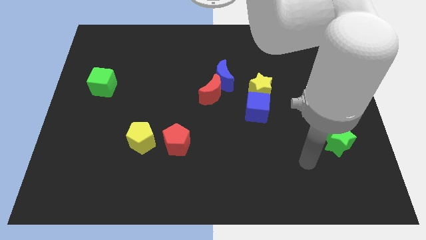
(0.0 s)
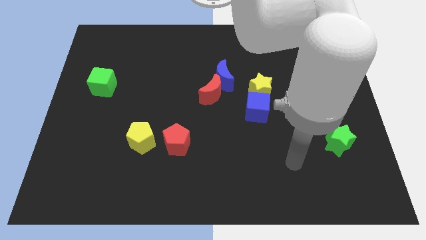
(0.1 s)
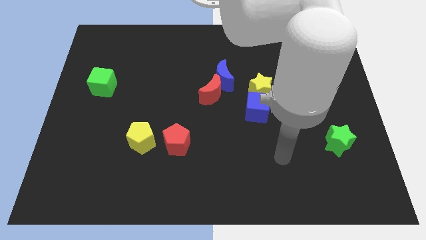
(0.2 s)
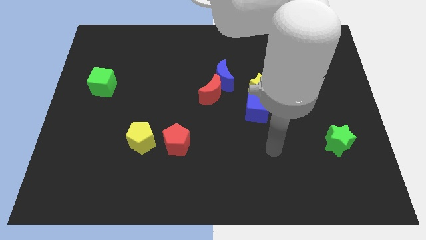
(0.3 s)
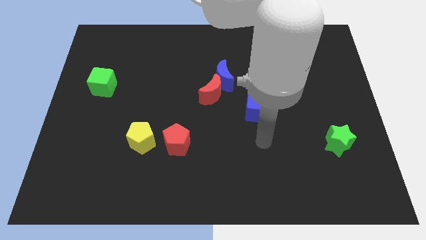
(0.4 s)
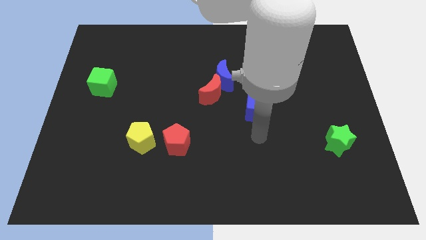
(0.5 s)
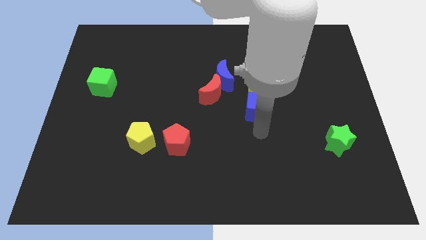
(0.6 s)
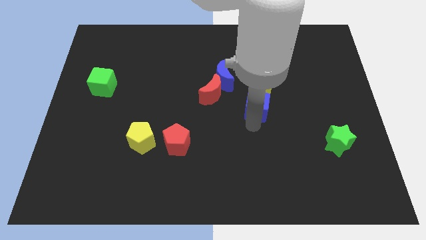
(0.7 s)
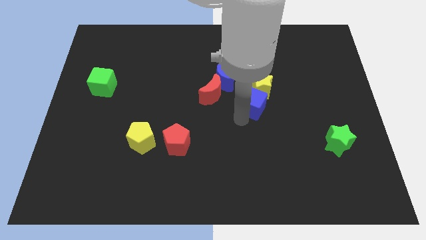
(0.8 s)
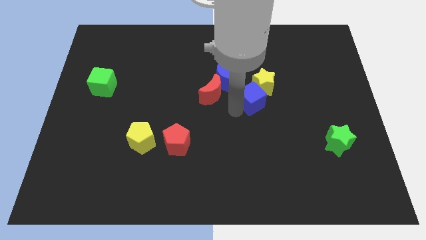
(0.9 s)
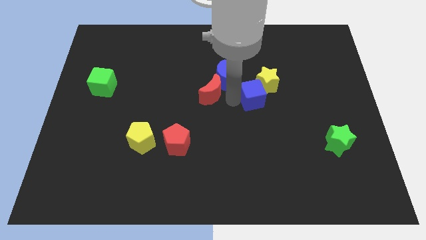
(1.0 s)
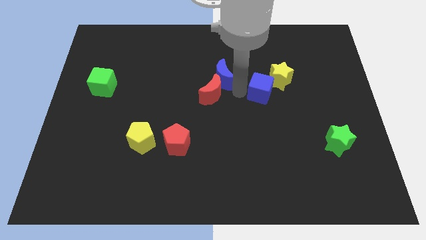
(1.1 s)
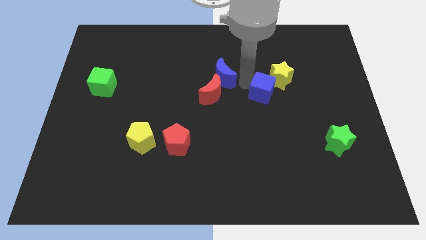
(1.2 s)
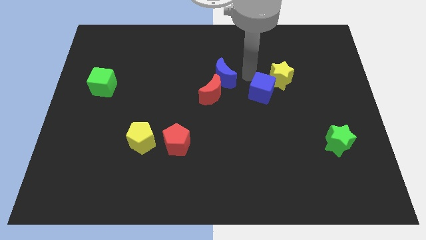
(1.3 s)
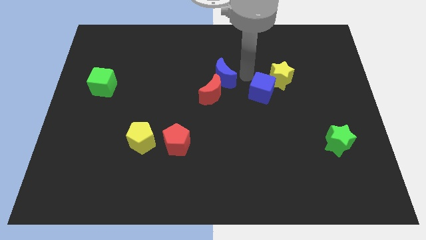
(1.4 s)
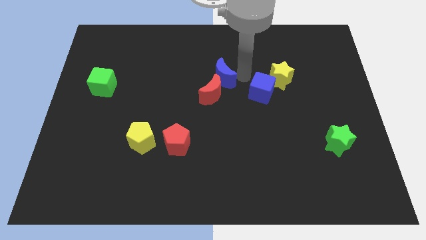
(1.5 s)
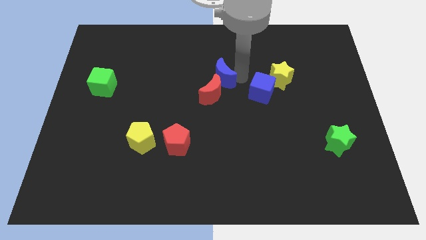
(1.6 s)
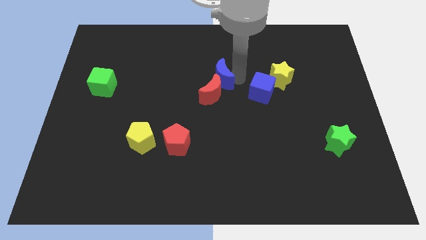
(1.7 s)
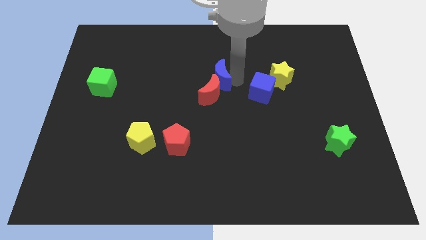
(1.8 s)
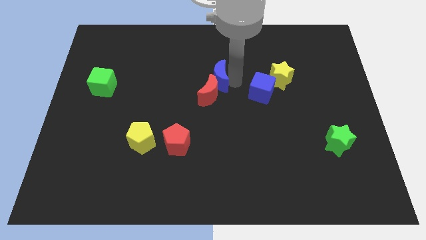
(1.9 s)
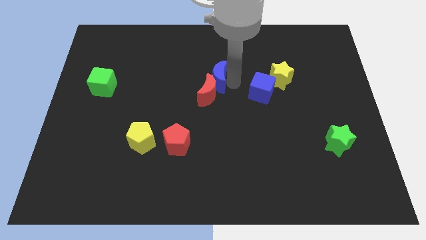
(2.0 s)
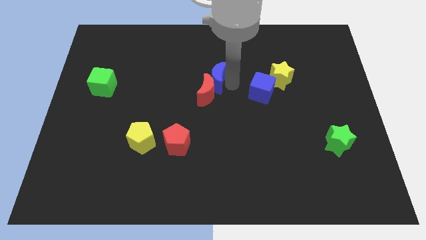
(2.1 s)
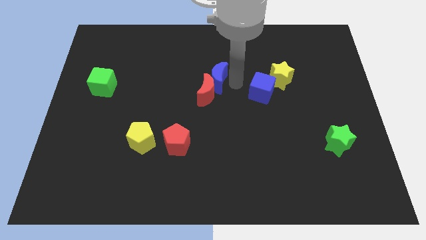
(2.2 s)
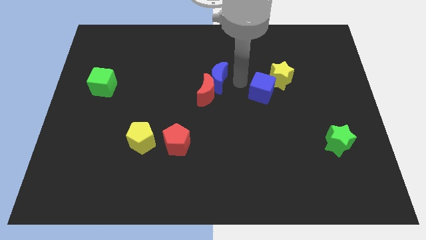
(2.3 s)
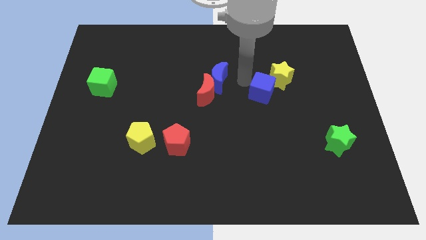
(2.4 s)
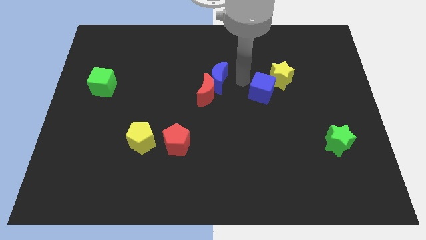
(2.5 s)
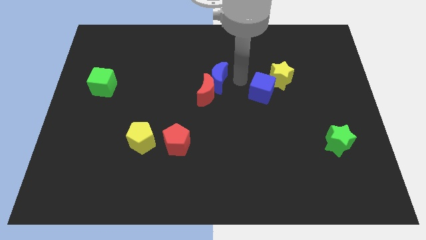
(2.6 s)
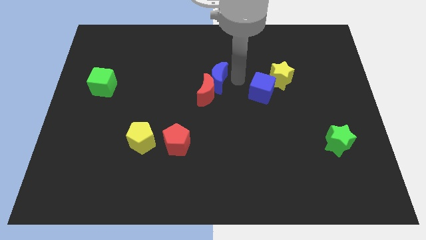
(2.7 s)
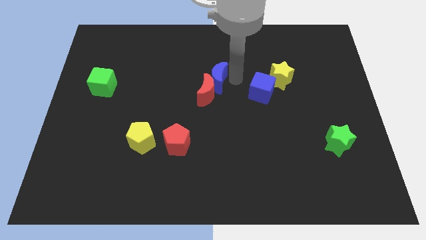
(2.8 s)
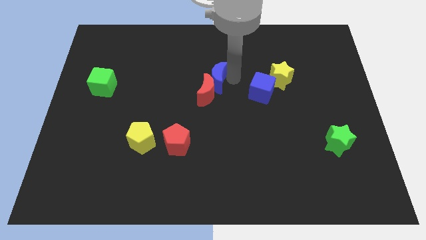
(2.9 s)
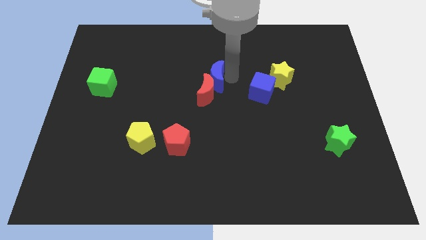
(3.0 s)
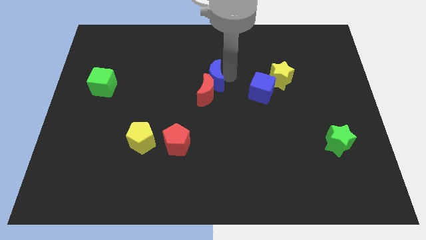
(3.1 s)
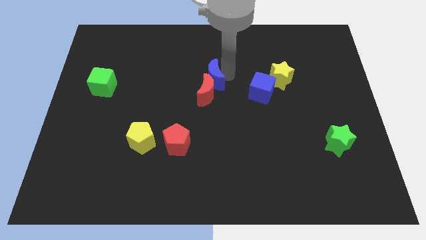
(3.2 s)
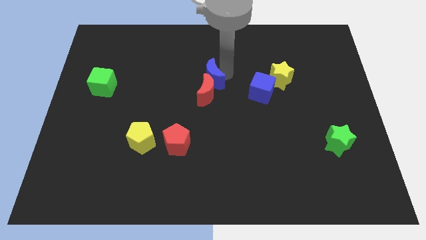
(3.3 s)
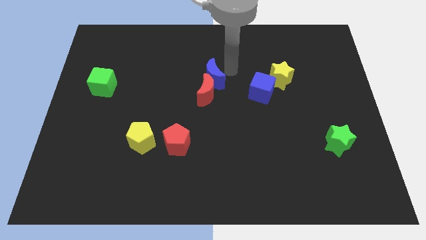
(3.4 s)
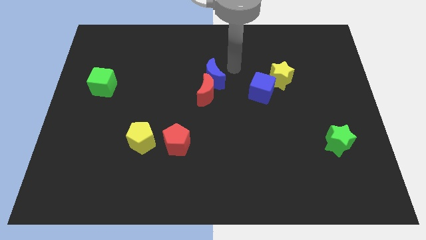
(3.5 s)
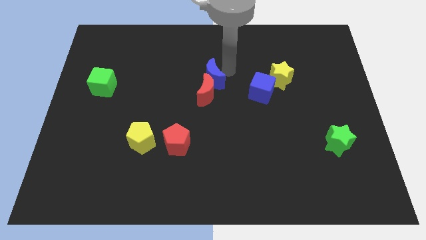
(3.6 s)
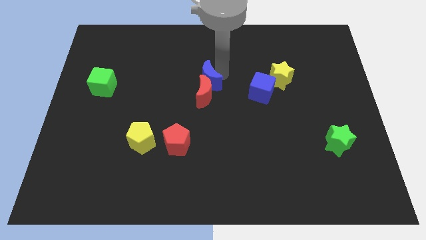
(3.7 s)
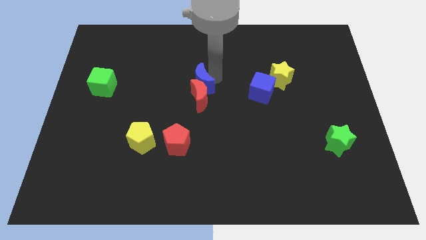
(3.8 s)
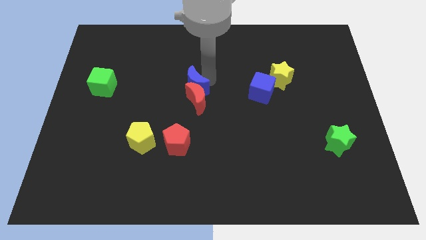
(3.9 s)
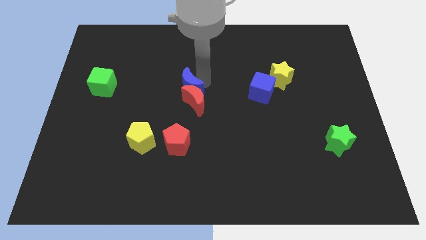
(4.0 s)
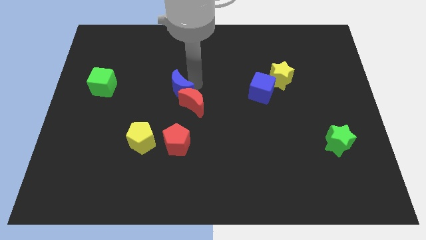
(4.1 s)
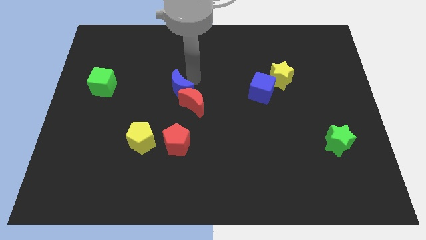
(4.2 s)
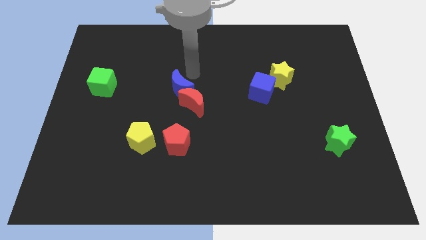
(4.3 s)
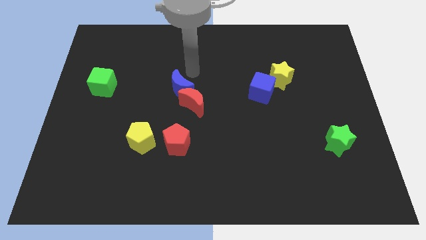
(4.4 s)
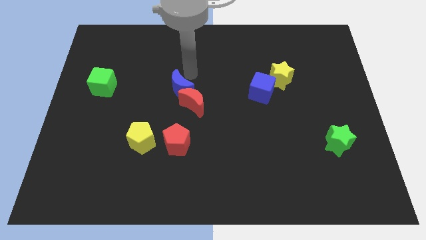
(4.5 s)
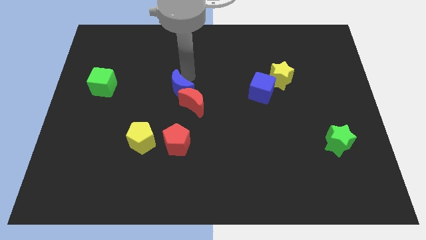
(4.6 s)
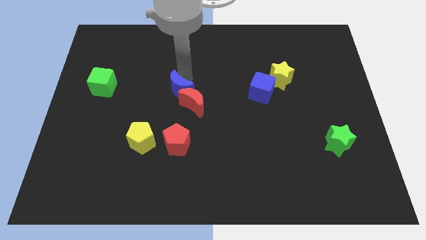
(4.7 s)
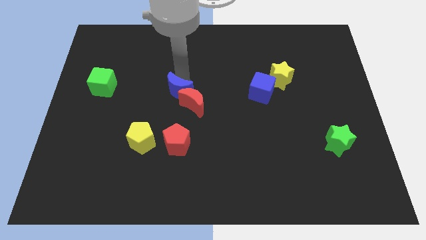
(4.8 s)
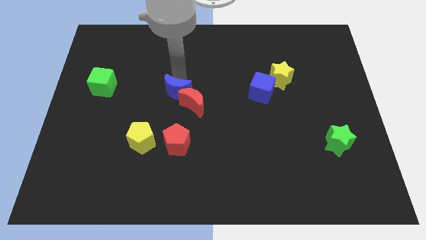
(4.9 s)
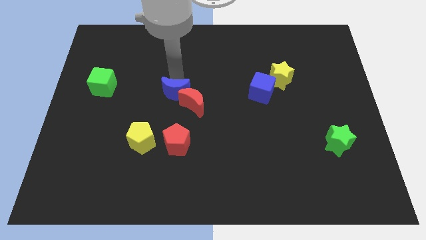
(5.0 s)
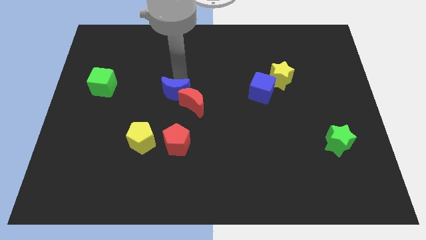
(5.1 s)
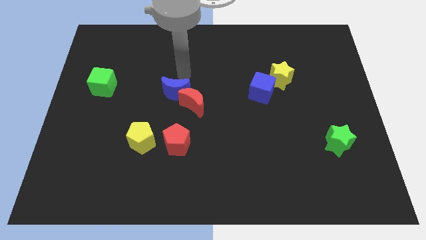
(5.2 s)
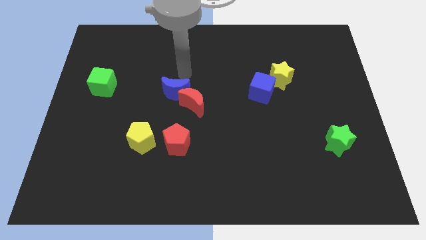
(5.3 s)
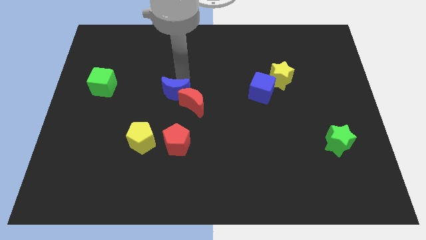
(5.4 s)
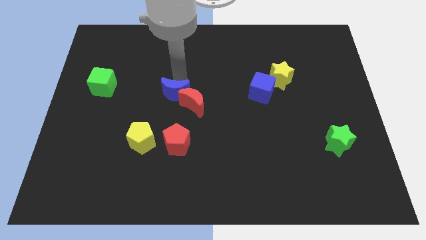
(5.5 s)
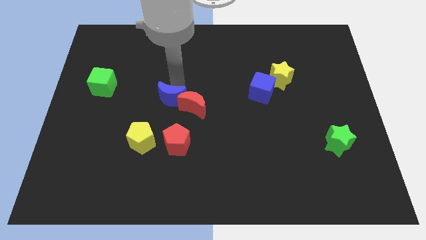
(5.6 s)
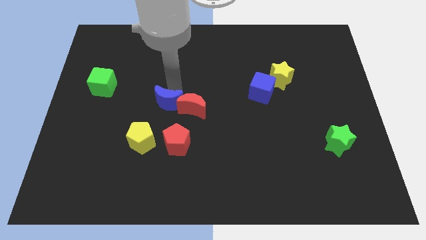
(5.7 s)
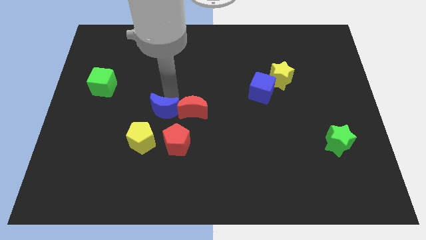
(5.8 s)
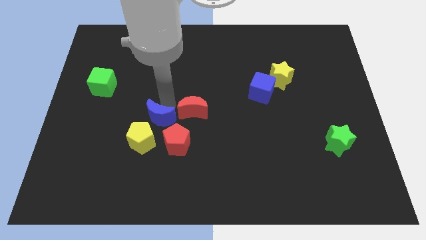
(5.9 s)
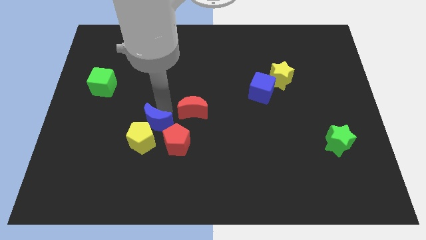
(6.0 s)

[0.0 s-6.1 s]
slide the blue moon to the yellow pentagon

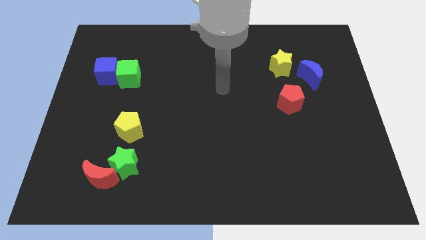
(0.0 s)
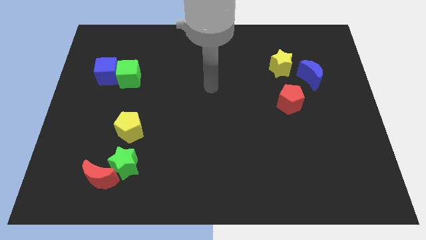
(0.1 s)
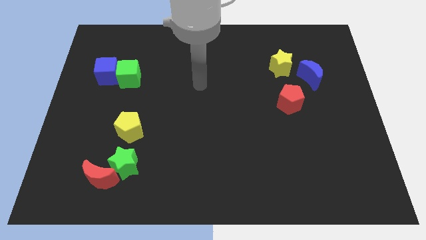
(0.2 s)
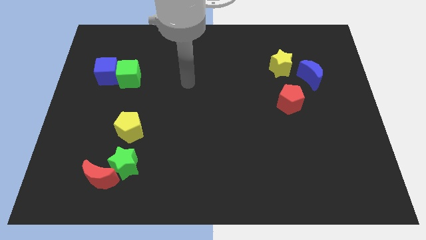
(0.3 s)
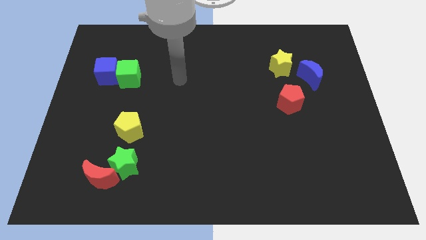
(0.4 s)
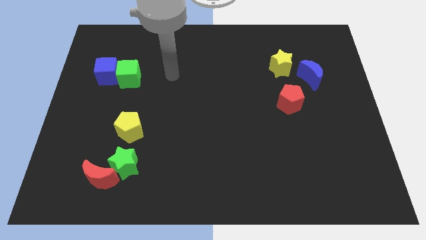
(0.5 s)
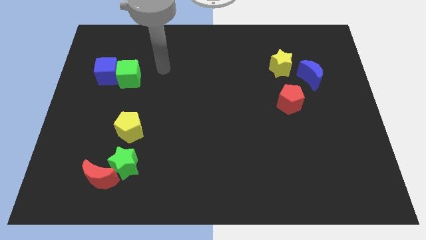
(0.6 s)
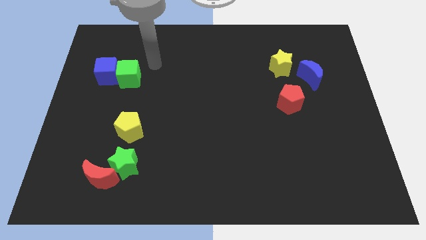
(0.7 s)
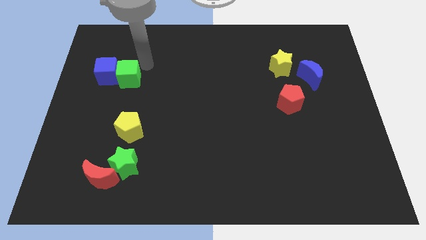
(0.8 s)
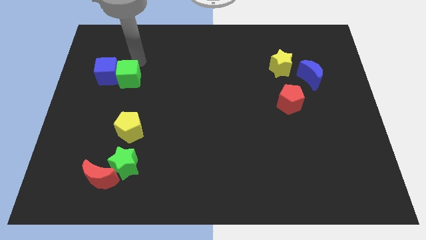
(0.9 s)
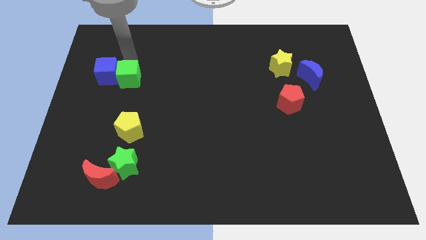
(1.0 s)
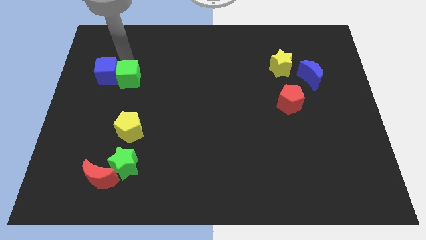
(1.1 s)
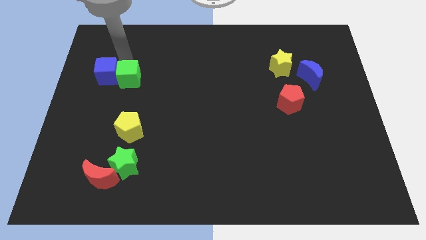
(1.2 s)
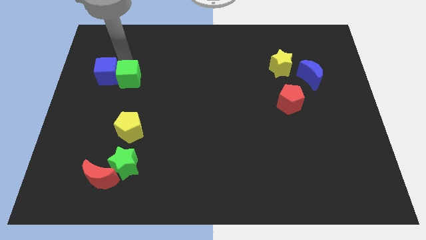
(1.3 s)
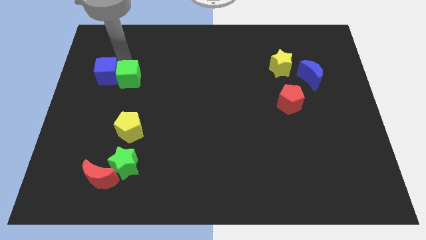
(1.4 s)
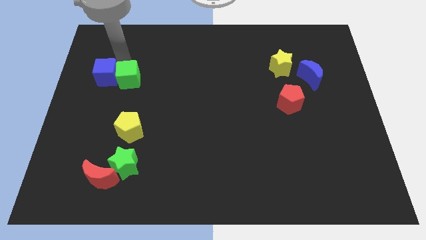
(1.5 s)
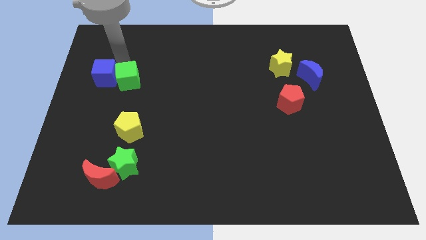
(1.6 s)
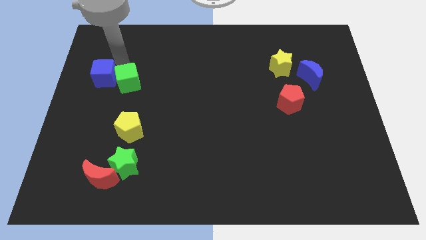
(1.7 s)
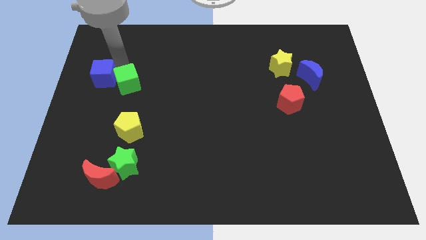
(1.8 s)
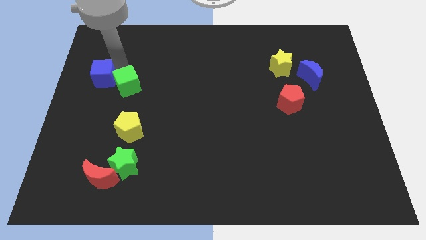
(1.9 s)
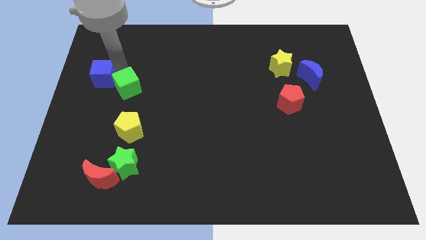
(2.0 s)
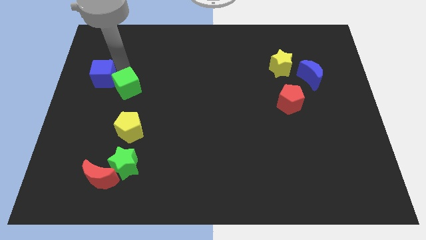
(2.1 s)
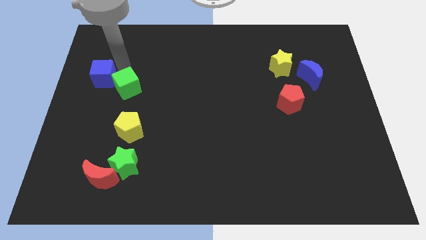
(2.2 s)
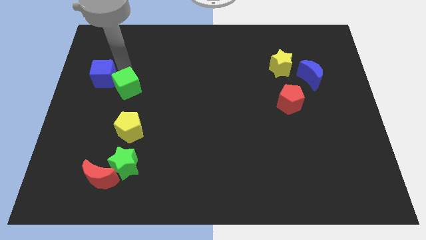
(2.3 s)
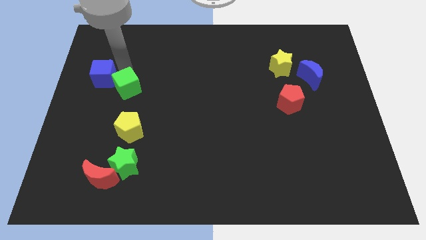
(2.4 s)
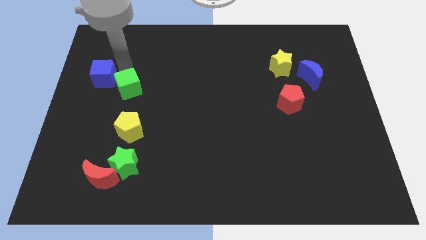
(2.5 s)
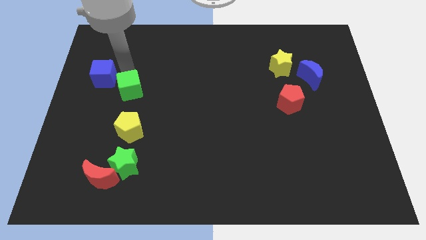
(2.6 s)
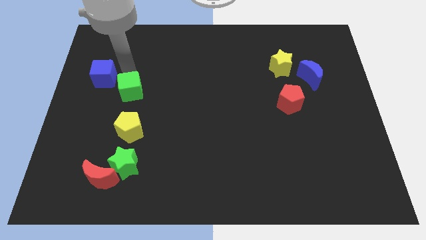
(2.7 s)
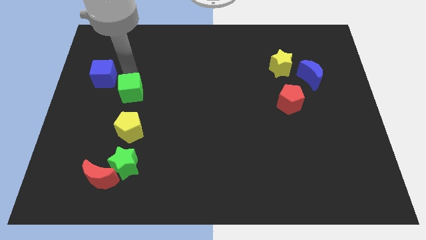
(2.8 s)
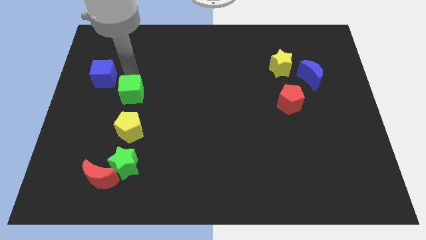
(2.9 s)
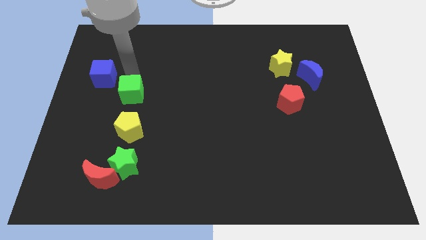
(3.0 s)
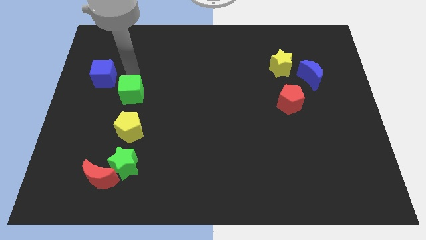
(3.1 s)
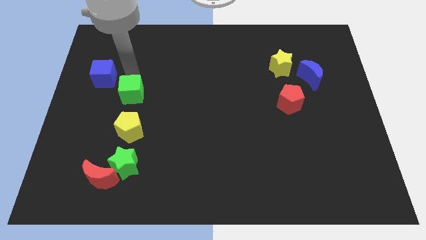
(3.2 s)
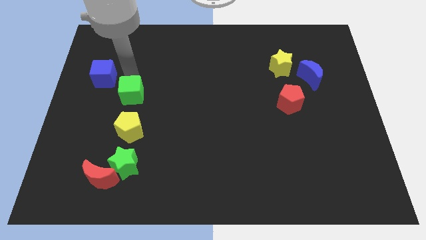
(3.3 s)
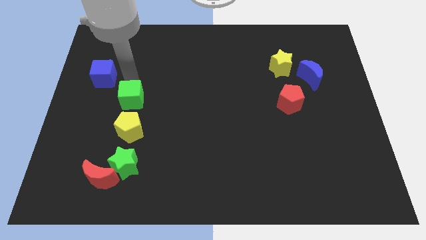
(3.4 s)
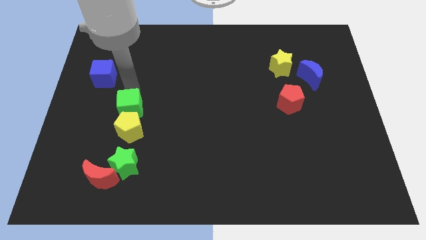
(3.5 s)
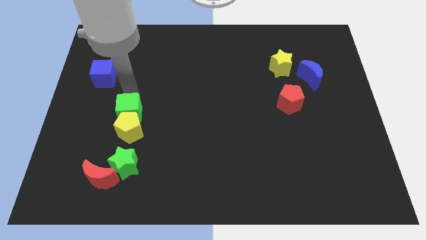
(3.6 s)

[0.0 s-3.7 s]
move the green cube close to the yellow pentagon
